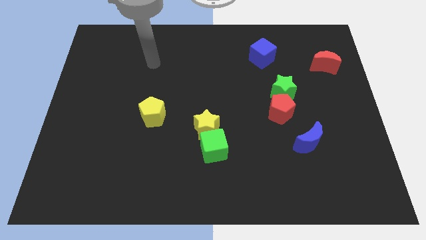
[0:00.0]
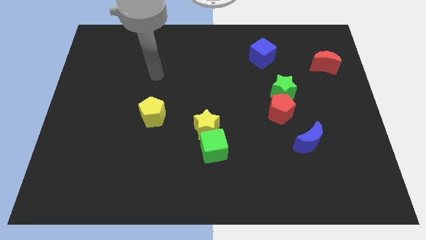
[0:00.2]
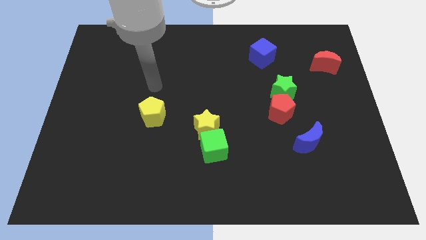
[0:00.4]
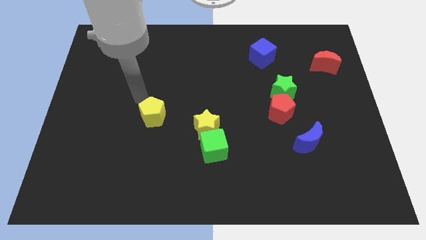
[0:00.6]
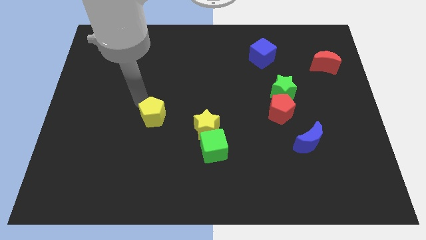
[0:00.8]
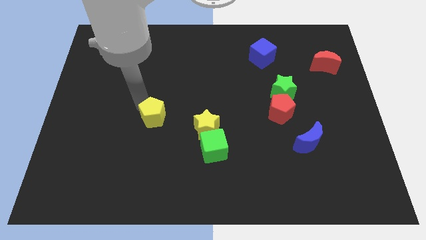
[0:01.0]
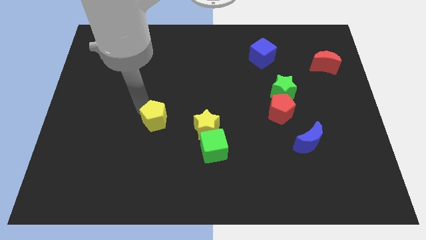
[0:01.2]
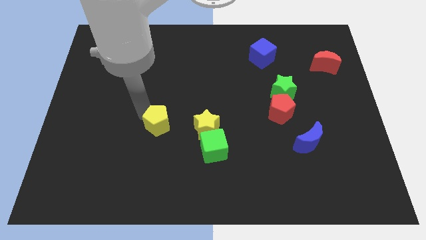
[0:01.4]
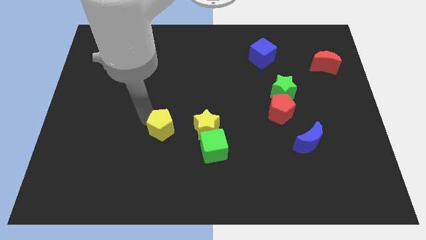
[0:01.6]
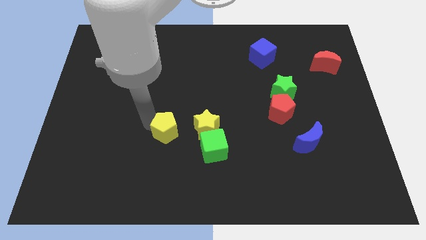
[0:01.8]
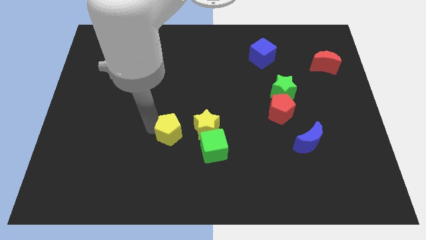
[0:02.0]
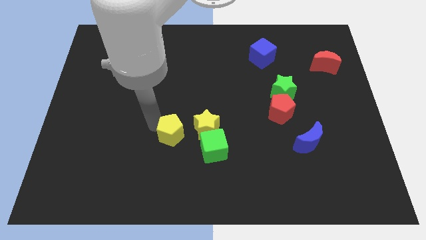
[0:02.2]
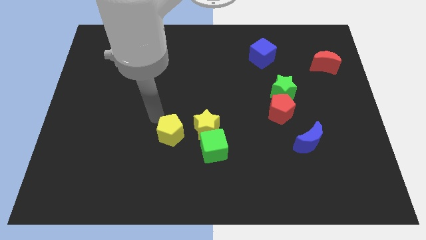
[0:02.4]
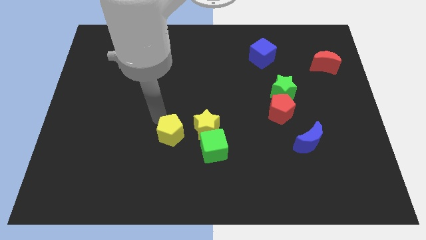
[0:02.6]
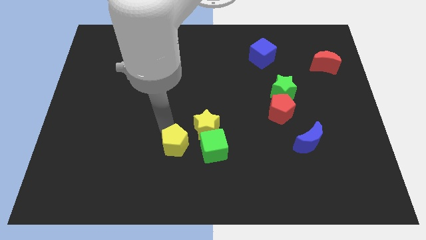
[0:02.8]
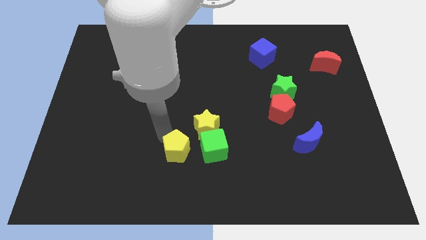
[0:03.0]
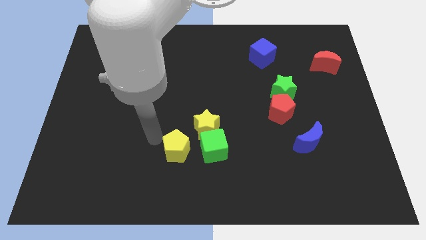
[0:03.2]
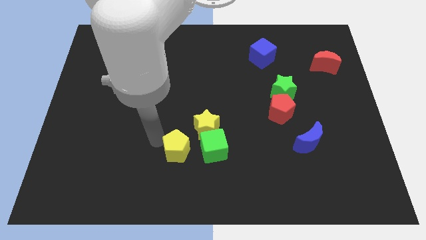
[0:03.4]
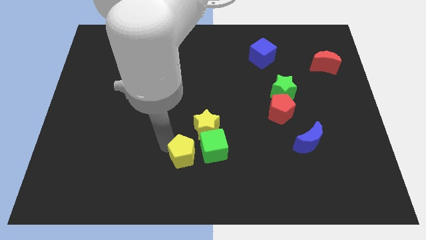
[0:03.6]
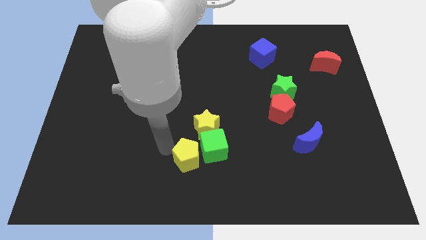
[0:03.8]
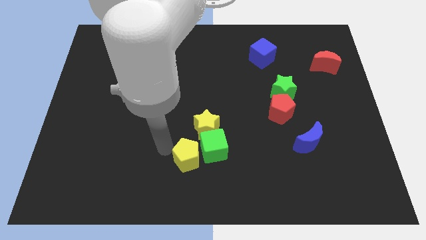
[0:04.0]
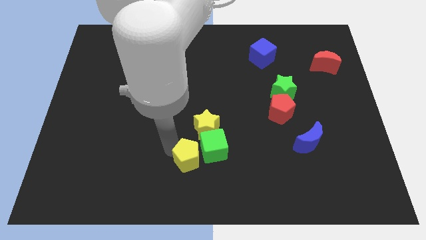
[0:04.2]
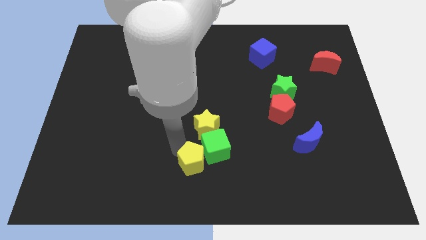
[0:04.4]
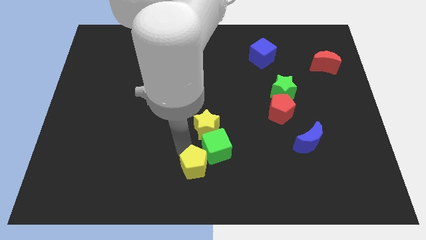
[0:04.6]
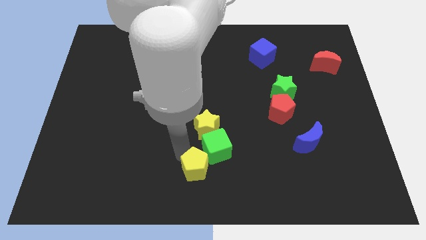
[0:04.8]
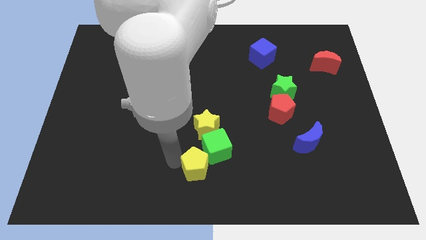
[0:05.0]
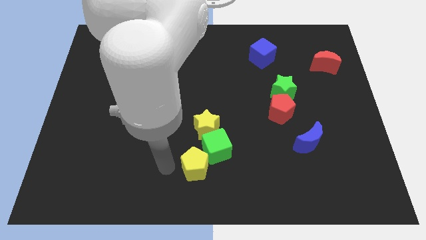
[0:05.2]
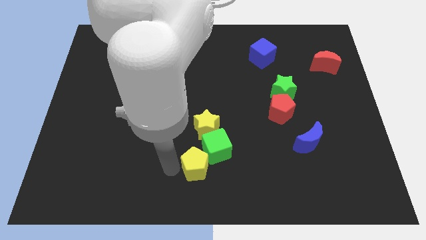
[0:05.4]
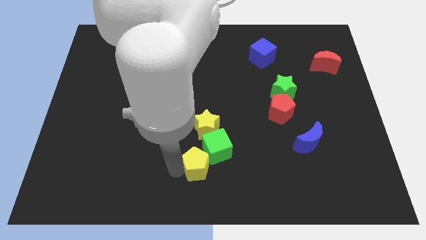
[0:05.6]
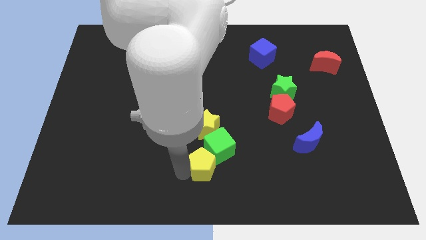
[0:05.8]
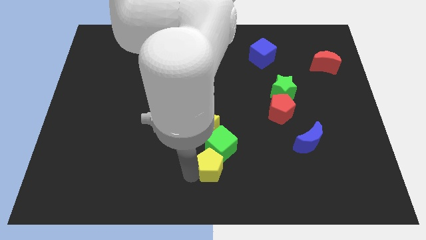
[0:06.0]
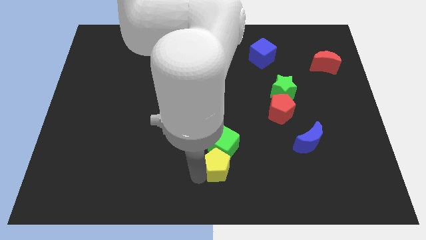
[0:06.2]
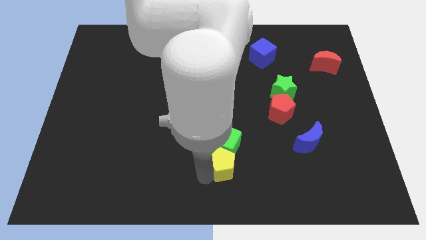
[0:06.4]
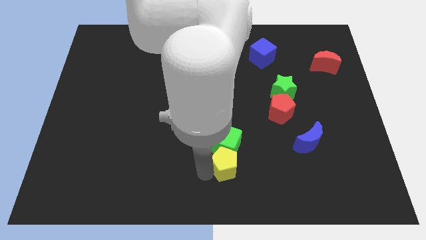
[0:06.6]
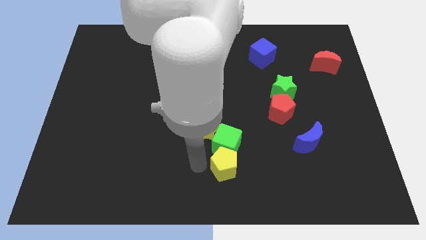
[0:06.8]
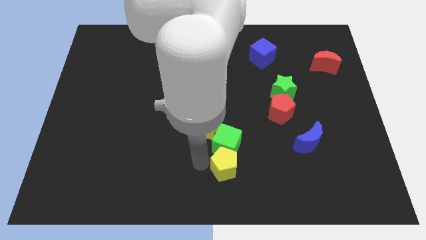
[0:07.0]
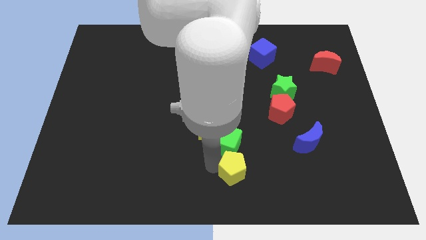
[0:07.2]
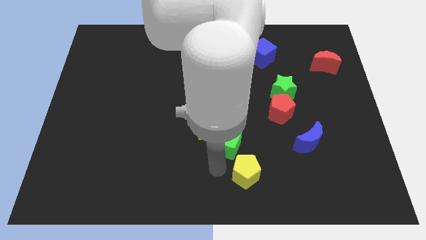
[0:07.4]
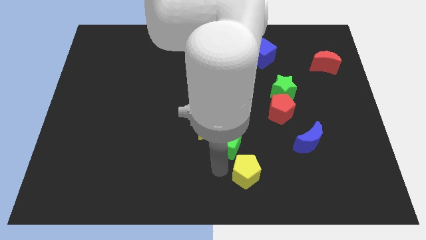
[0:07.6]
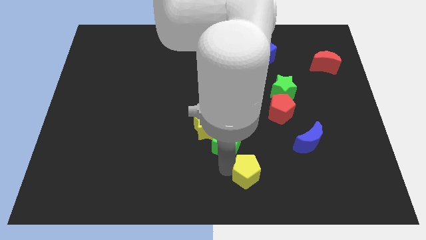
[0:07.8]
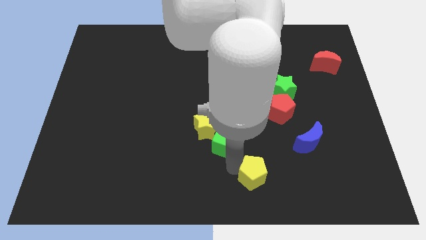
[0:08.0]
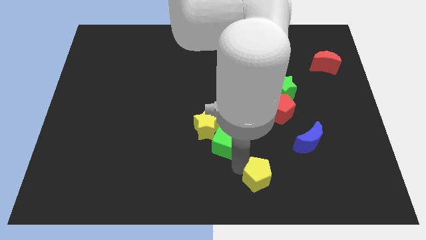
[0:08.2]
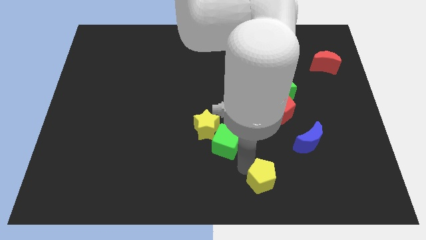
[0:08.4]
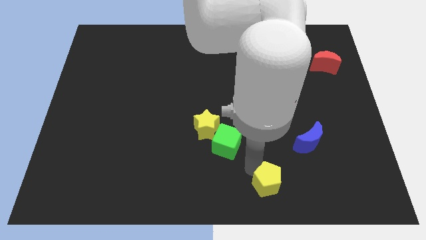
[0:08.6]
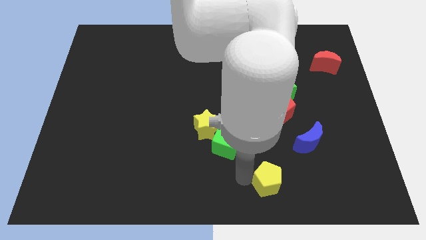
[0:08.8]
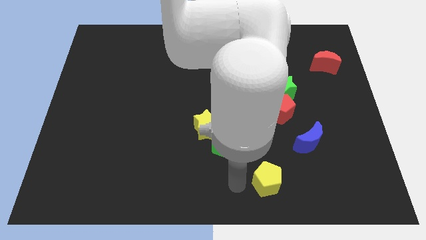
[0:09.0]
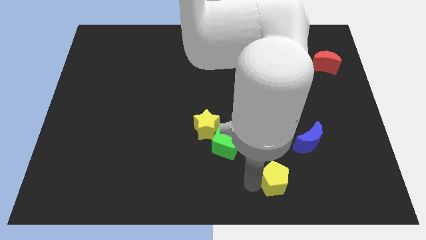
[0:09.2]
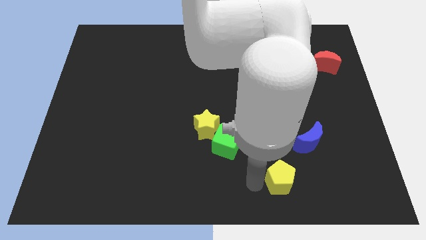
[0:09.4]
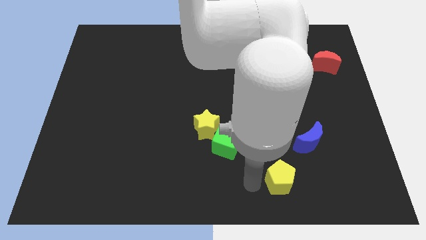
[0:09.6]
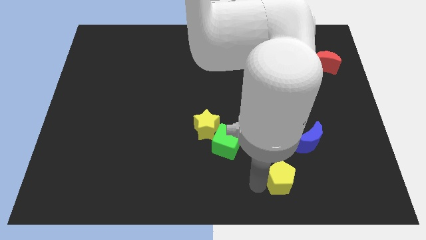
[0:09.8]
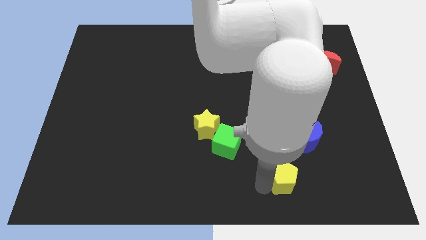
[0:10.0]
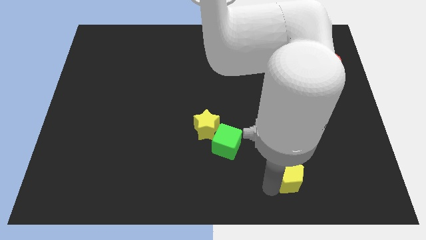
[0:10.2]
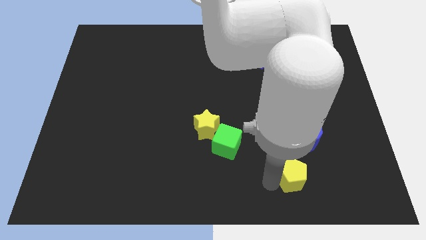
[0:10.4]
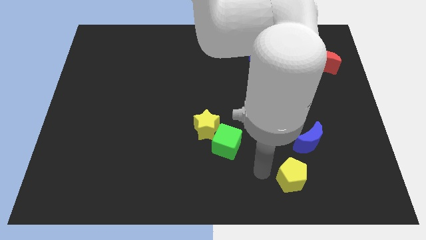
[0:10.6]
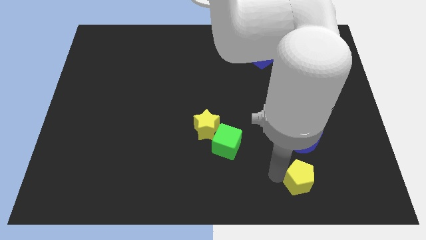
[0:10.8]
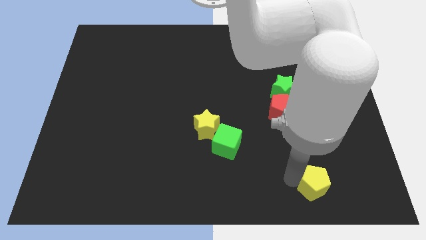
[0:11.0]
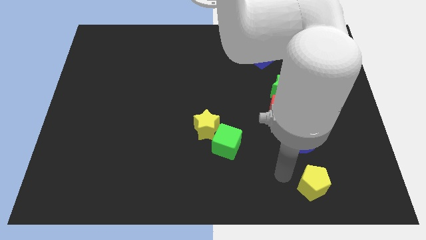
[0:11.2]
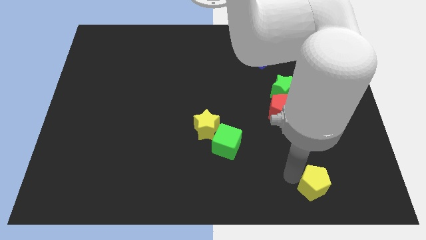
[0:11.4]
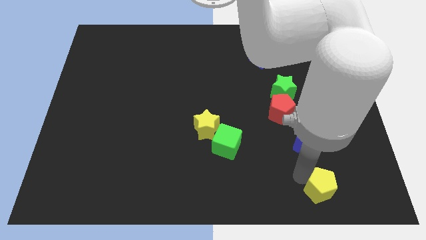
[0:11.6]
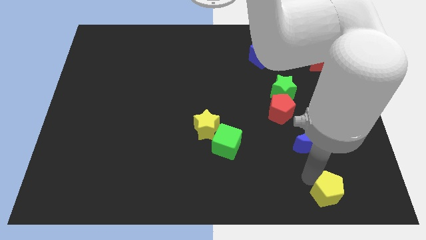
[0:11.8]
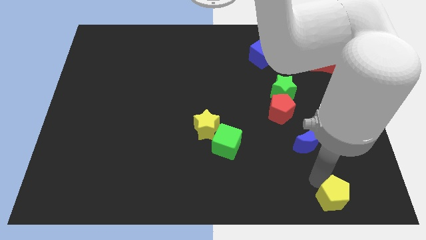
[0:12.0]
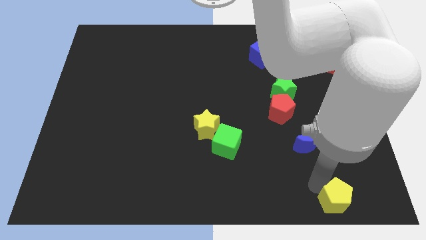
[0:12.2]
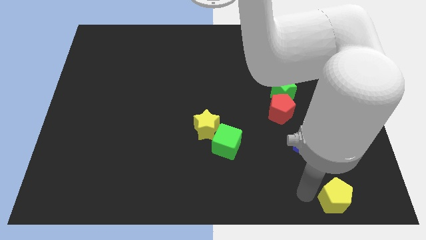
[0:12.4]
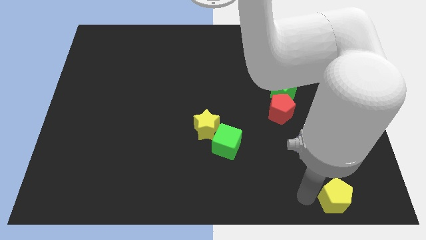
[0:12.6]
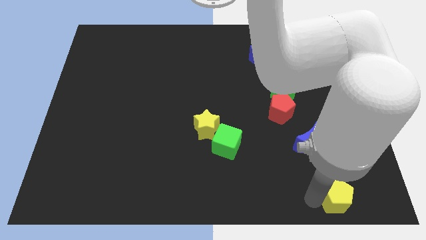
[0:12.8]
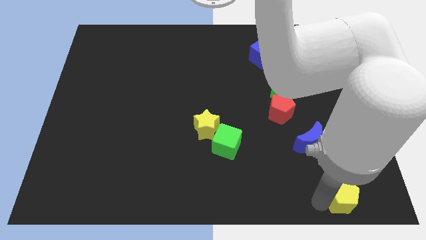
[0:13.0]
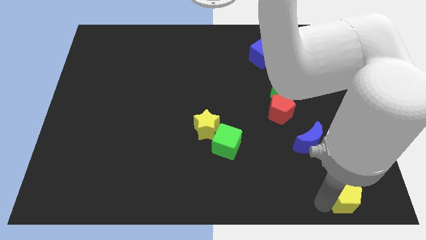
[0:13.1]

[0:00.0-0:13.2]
slide the yellow pentagon to the lower right corner

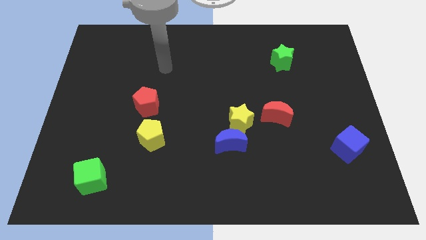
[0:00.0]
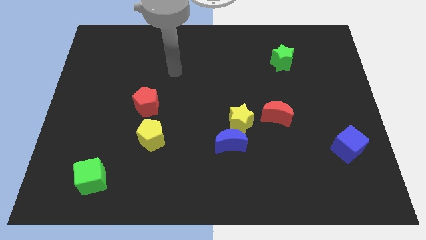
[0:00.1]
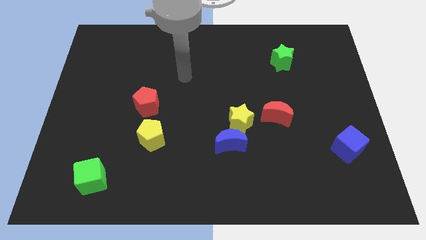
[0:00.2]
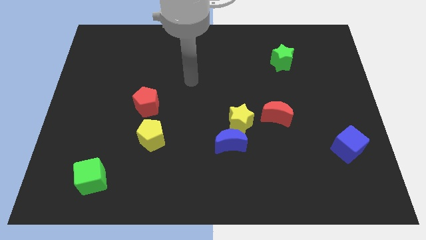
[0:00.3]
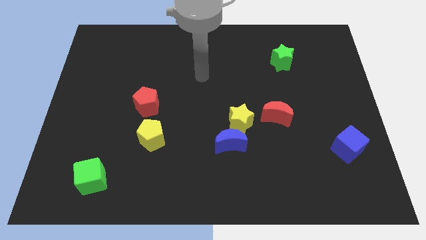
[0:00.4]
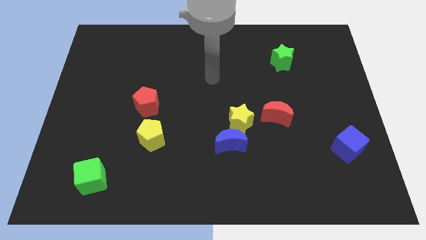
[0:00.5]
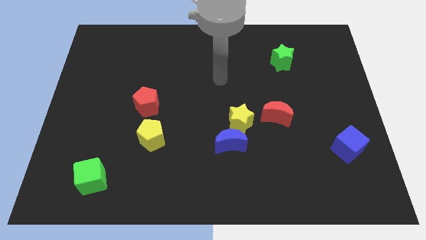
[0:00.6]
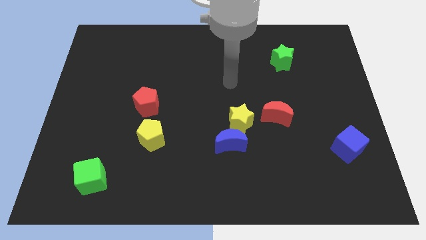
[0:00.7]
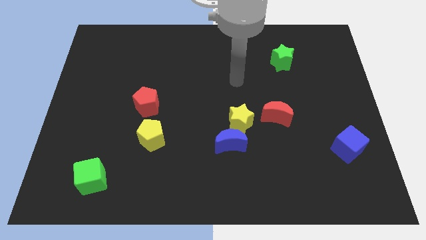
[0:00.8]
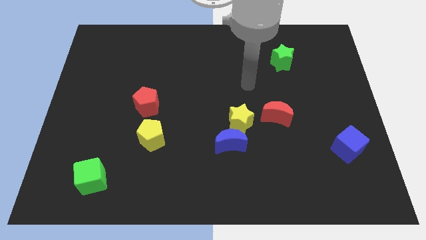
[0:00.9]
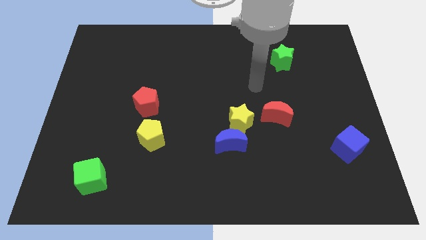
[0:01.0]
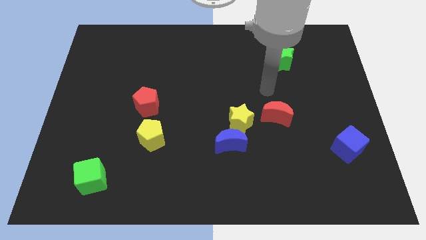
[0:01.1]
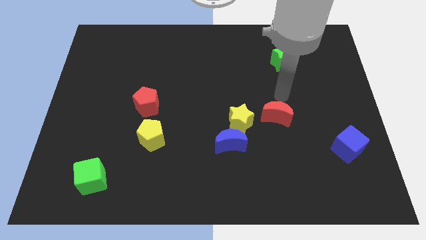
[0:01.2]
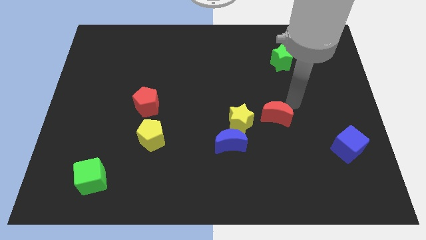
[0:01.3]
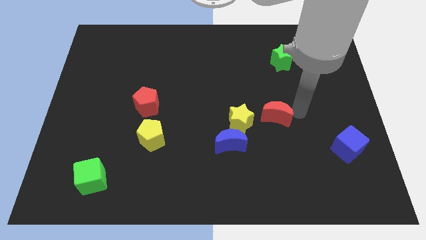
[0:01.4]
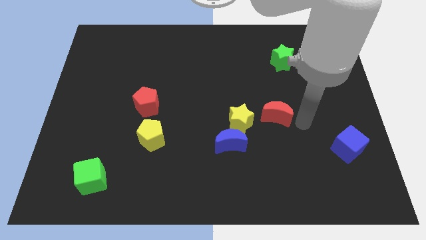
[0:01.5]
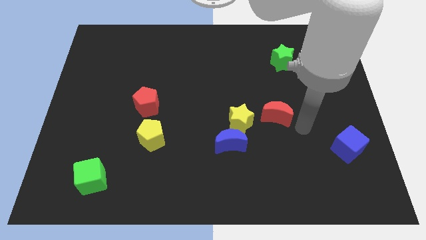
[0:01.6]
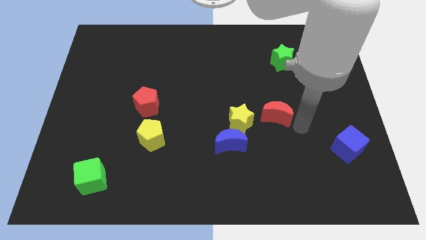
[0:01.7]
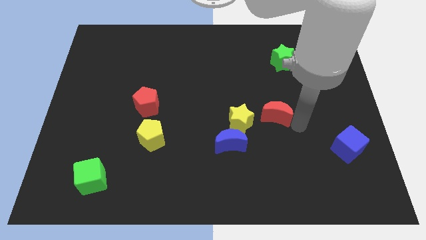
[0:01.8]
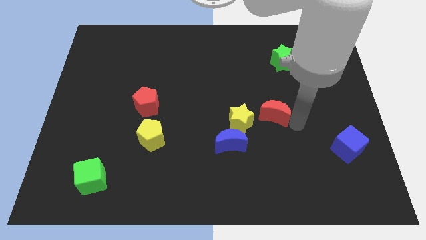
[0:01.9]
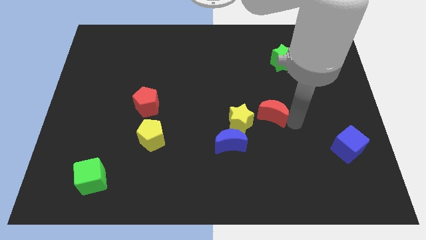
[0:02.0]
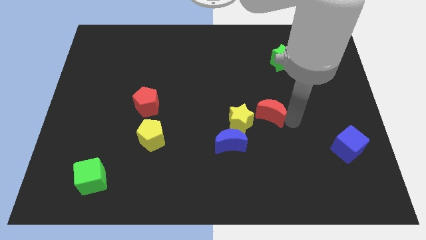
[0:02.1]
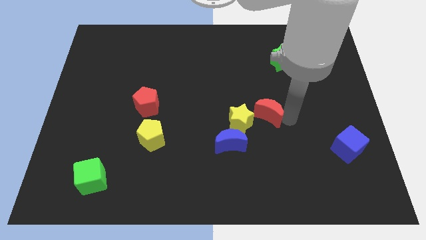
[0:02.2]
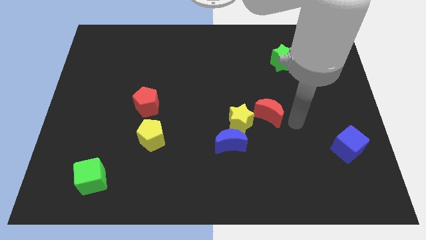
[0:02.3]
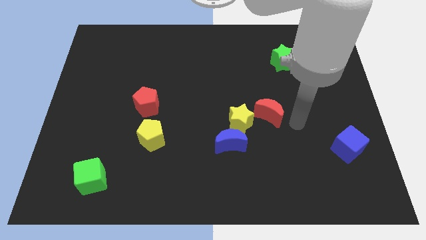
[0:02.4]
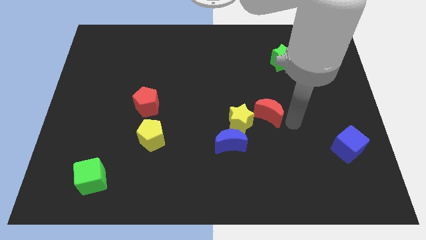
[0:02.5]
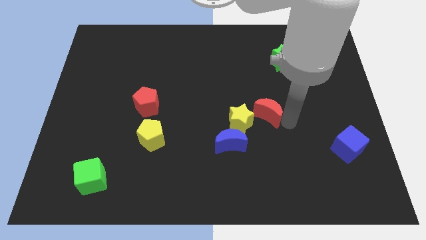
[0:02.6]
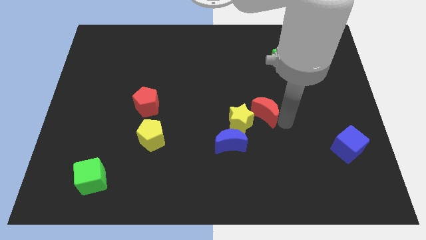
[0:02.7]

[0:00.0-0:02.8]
put the red moon to the center
